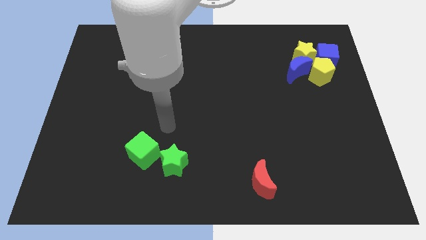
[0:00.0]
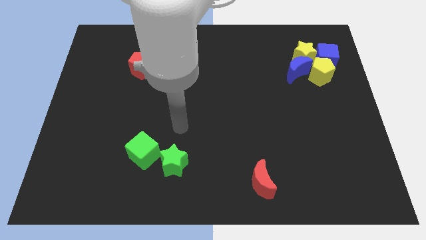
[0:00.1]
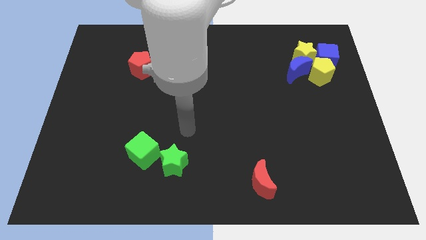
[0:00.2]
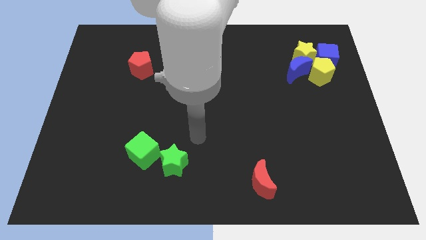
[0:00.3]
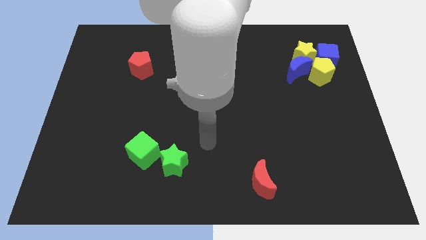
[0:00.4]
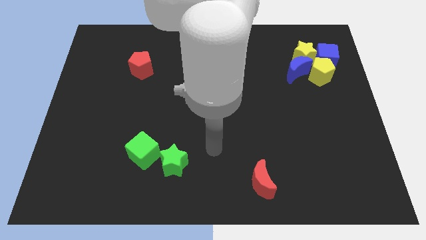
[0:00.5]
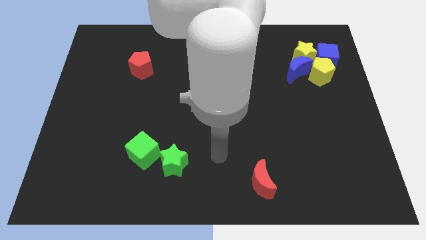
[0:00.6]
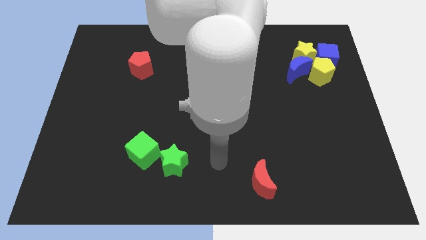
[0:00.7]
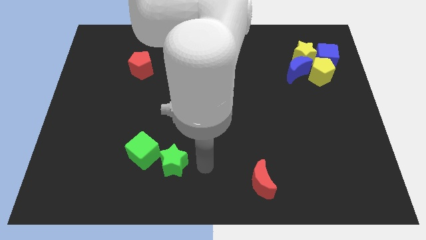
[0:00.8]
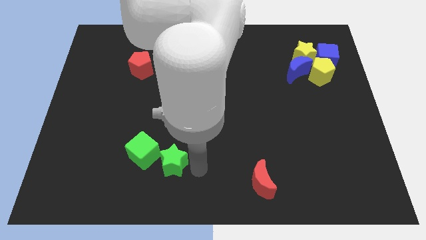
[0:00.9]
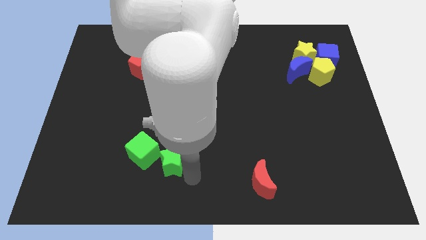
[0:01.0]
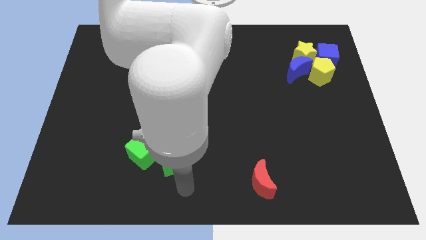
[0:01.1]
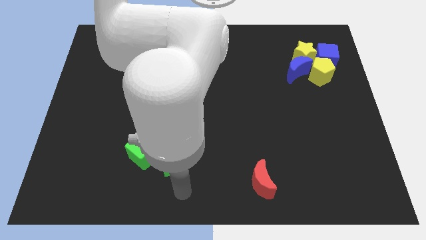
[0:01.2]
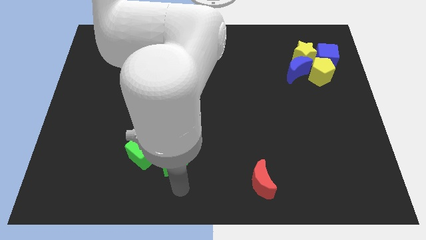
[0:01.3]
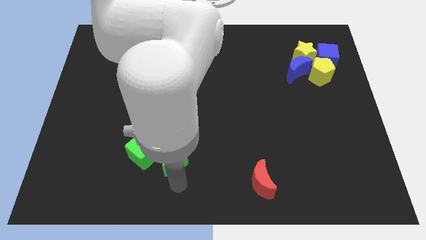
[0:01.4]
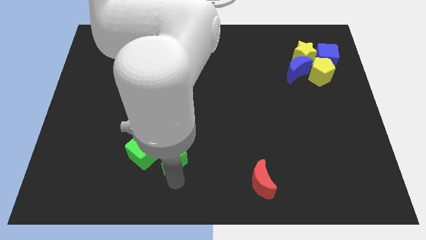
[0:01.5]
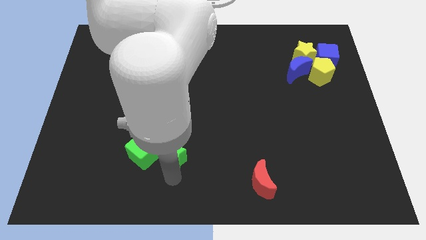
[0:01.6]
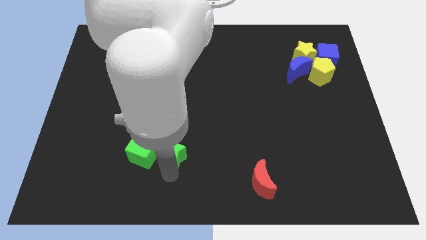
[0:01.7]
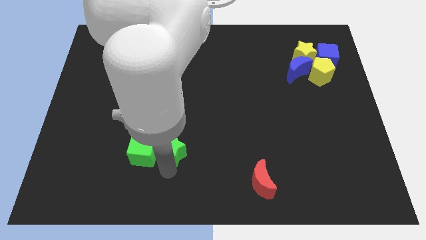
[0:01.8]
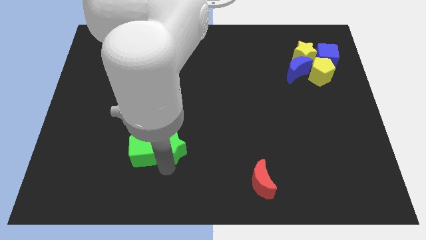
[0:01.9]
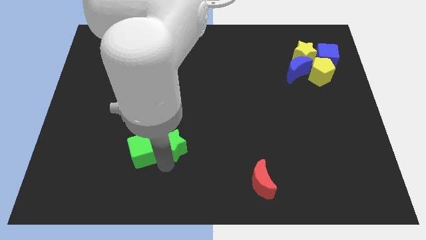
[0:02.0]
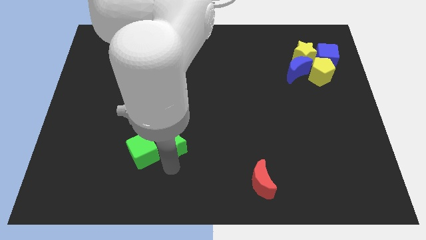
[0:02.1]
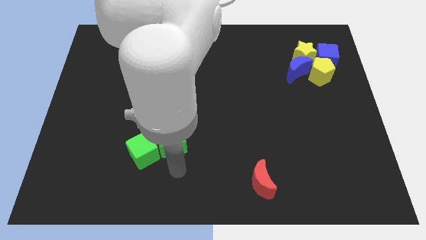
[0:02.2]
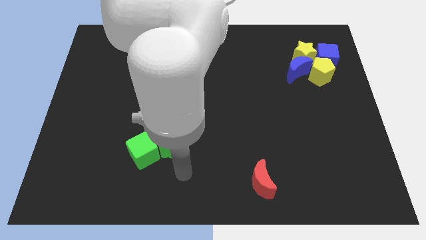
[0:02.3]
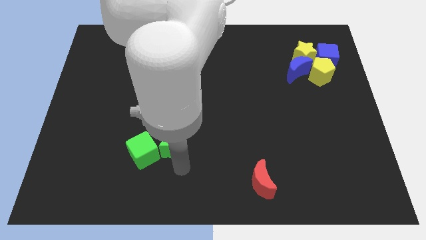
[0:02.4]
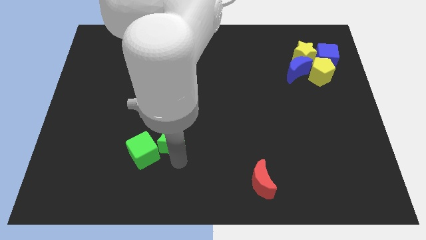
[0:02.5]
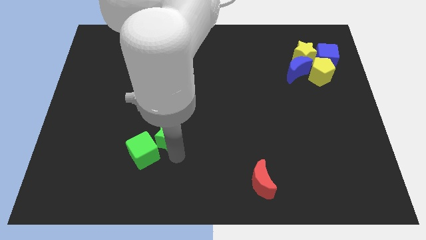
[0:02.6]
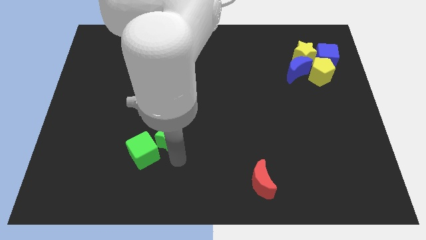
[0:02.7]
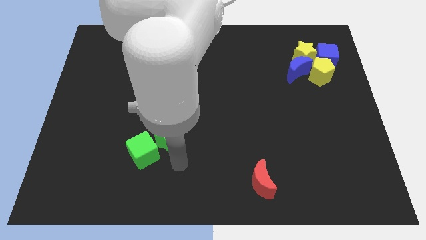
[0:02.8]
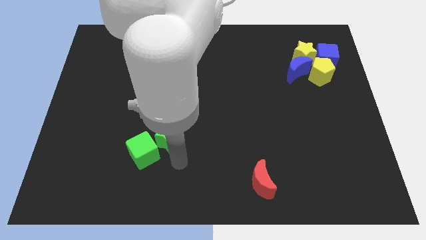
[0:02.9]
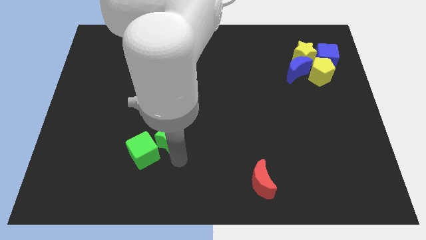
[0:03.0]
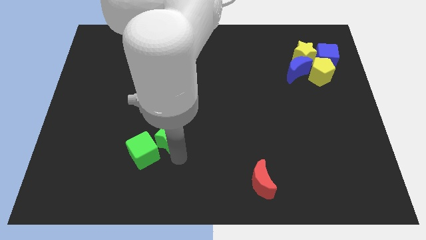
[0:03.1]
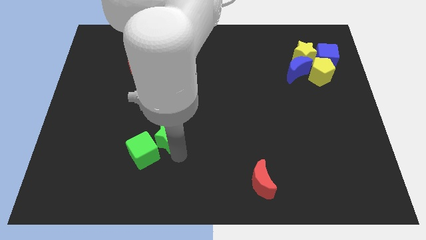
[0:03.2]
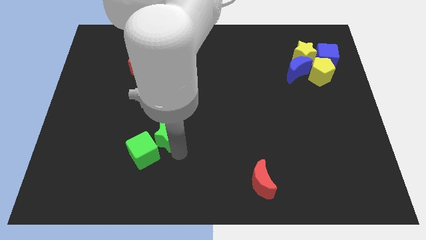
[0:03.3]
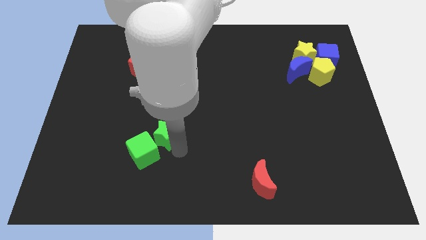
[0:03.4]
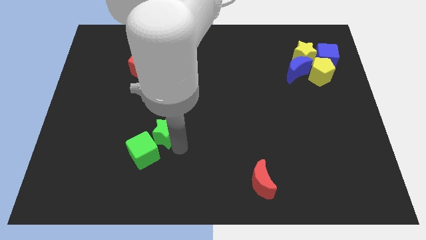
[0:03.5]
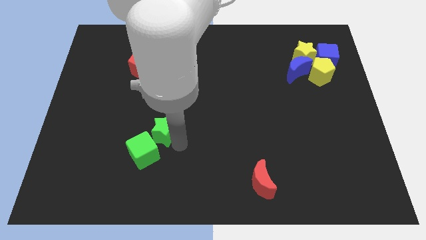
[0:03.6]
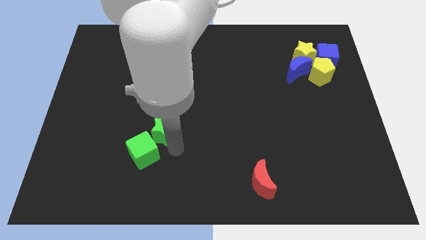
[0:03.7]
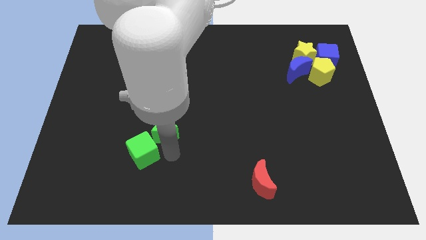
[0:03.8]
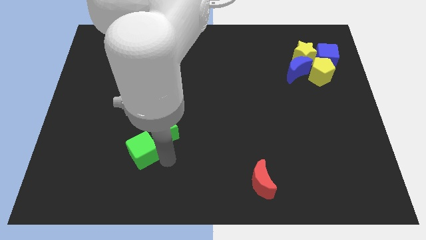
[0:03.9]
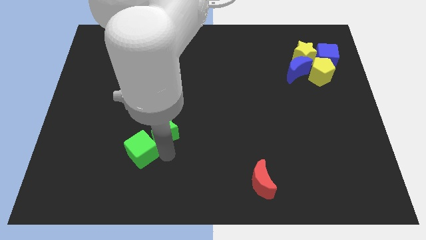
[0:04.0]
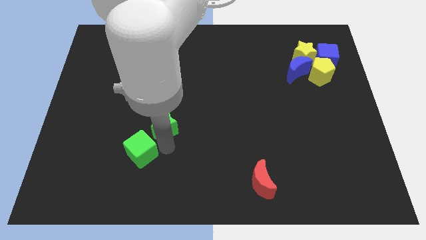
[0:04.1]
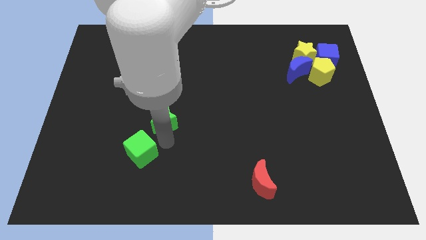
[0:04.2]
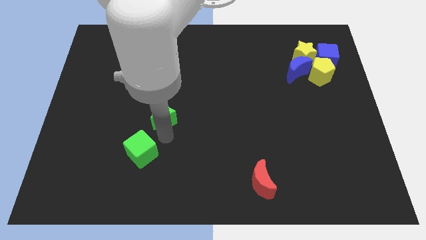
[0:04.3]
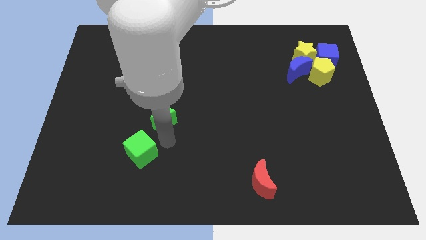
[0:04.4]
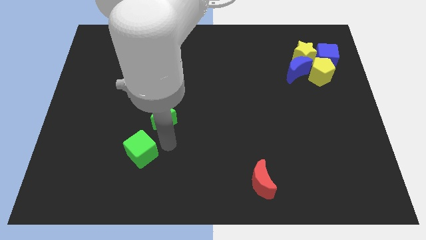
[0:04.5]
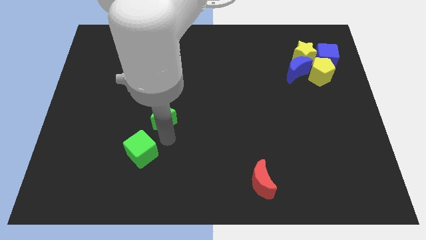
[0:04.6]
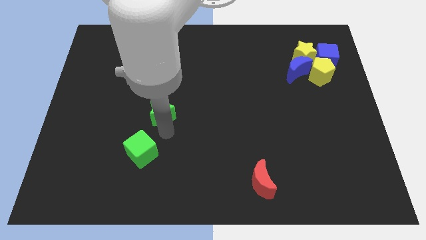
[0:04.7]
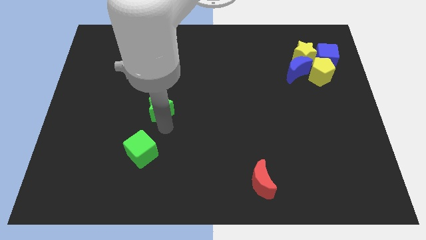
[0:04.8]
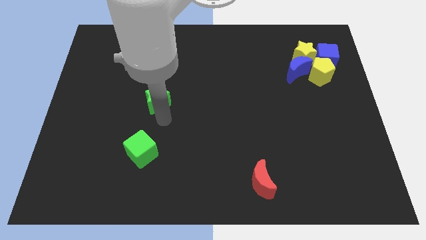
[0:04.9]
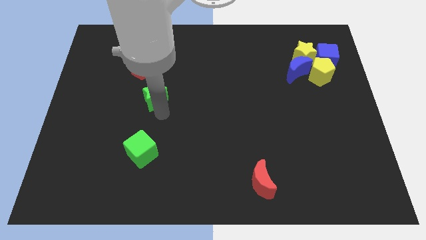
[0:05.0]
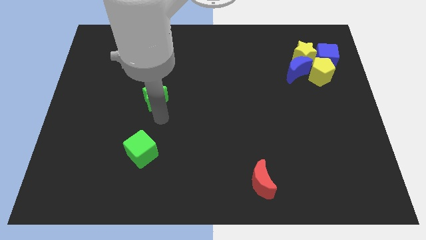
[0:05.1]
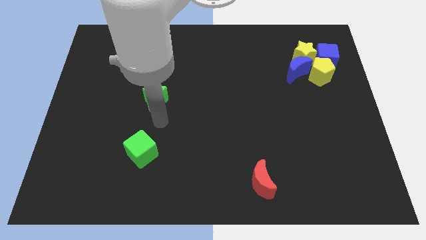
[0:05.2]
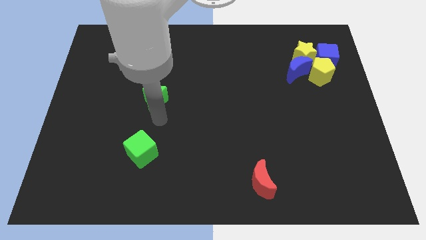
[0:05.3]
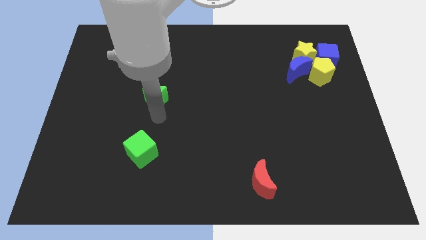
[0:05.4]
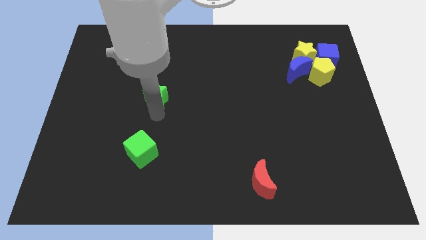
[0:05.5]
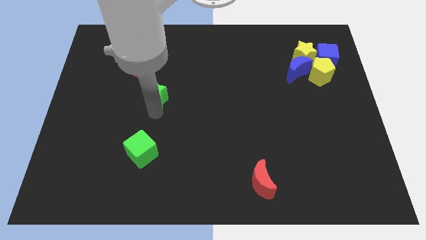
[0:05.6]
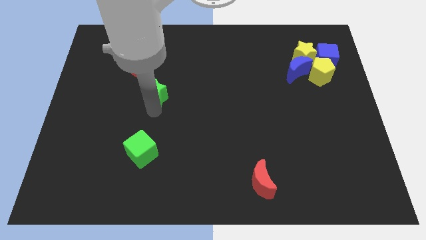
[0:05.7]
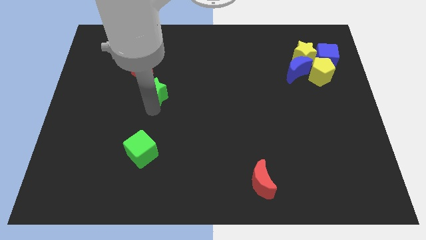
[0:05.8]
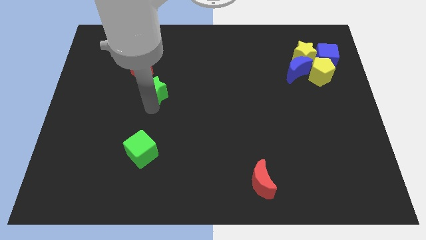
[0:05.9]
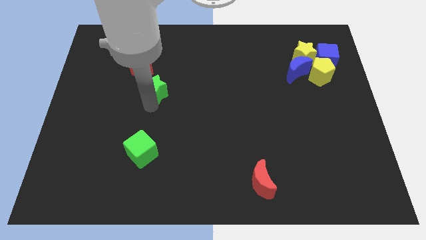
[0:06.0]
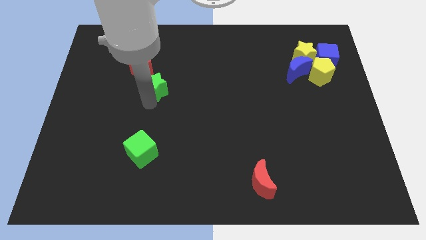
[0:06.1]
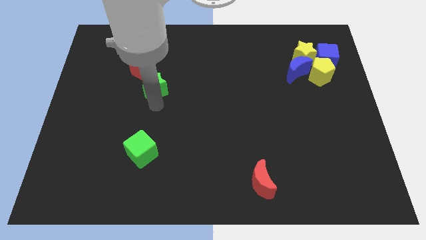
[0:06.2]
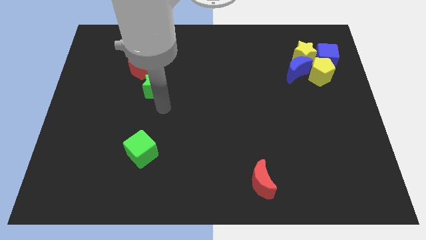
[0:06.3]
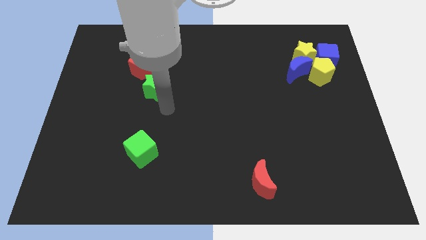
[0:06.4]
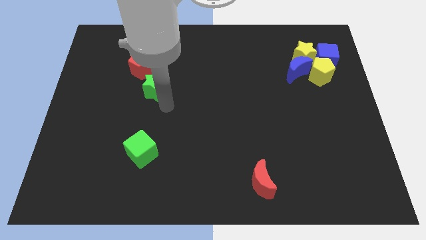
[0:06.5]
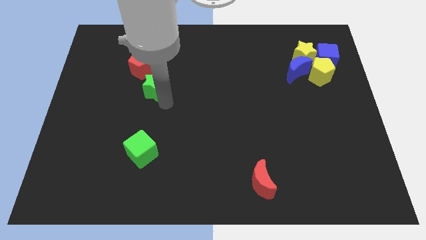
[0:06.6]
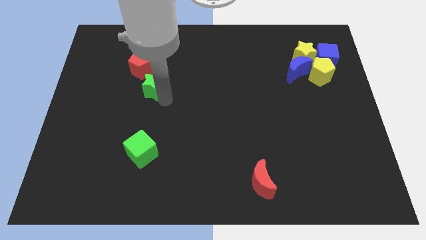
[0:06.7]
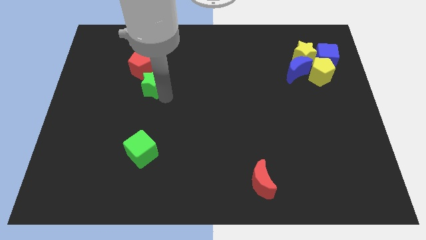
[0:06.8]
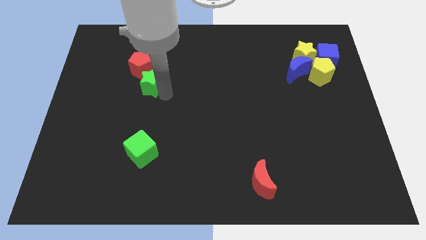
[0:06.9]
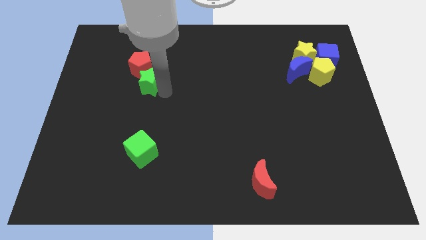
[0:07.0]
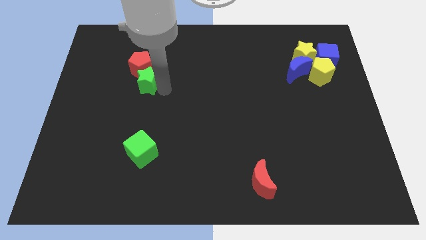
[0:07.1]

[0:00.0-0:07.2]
put the green star close to the red pentagon
